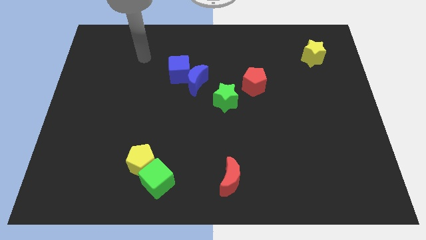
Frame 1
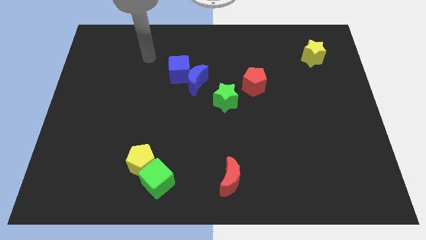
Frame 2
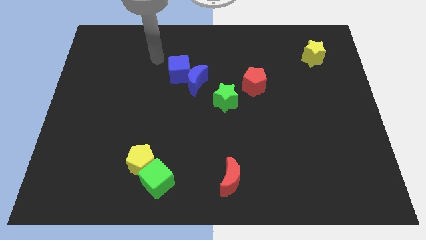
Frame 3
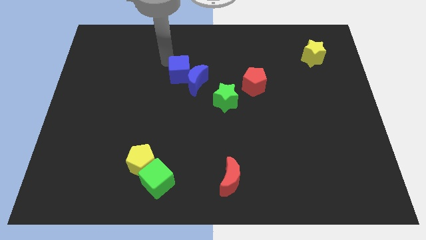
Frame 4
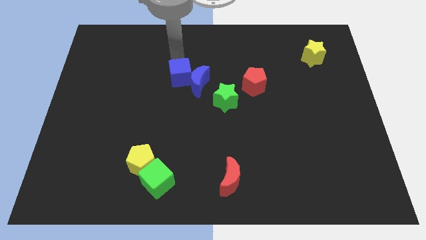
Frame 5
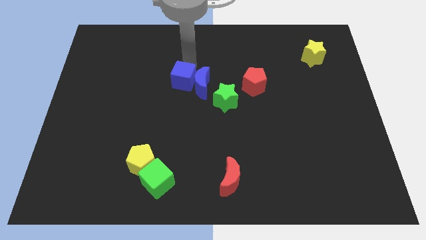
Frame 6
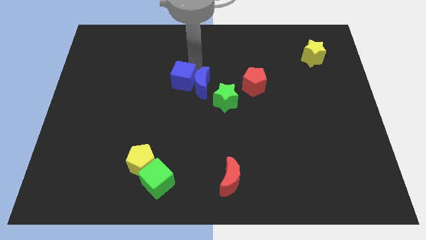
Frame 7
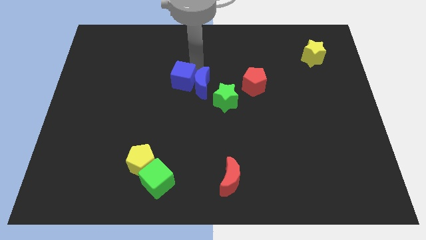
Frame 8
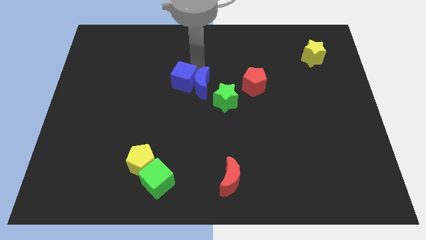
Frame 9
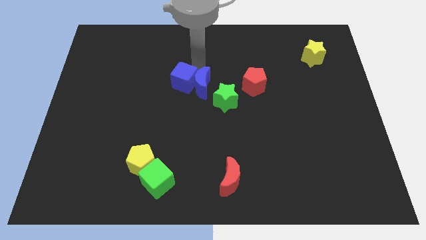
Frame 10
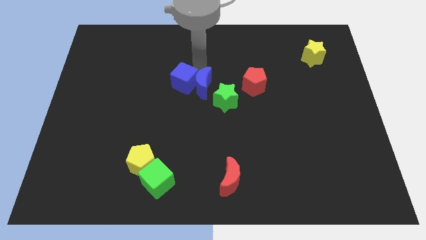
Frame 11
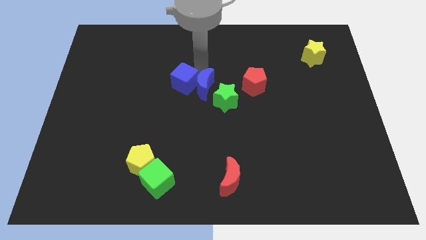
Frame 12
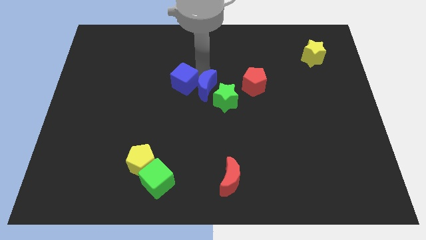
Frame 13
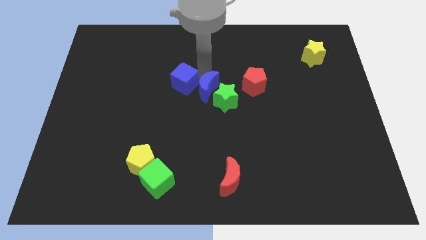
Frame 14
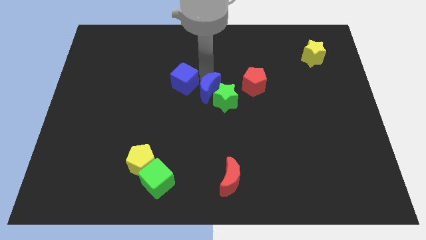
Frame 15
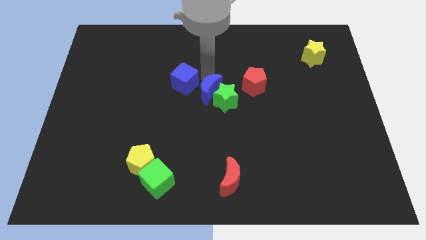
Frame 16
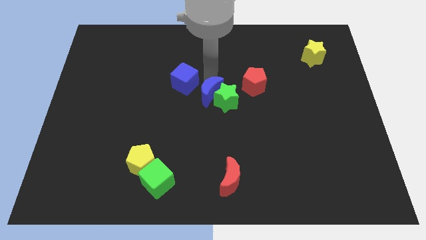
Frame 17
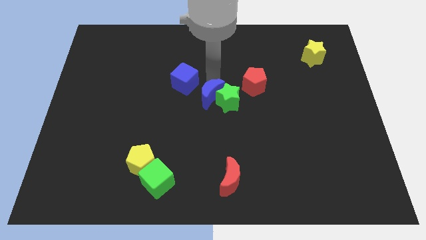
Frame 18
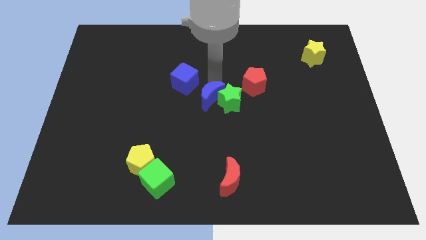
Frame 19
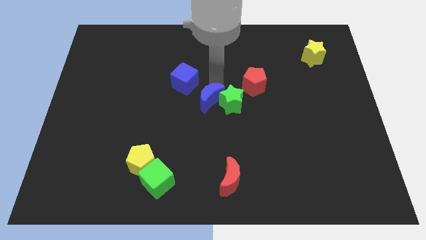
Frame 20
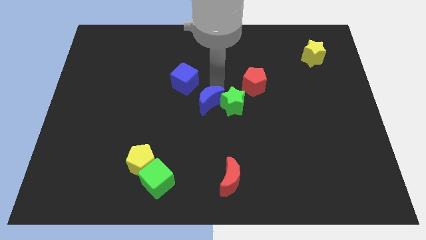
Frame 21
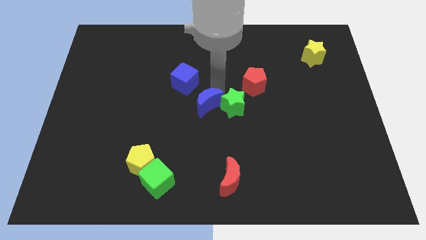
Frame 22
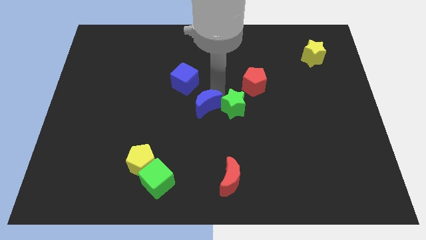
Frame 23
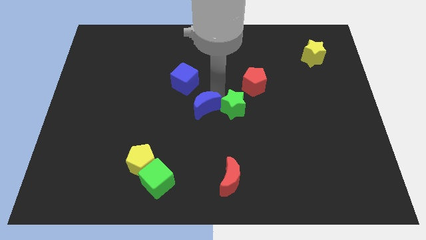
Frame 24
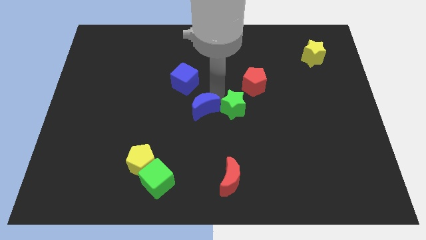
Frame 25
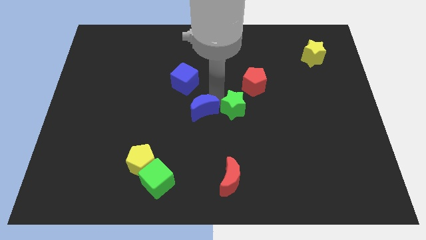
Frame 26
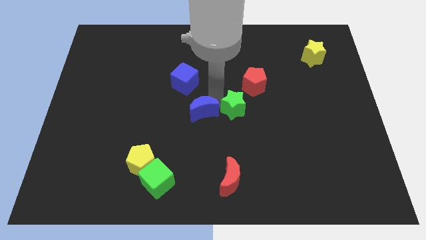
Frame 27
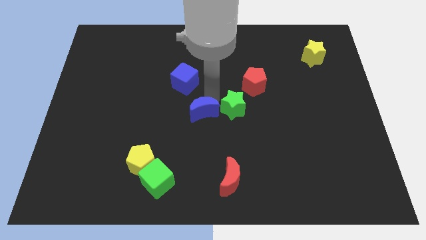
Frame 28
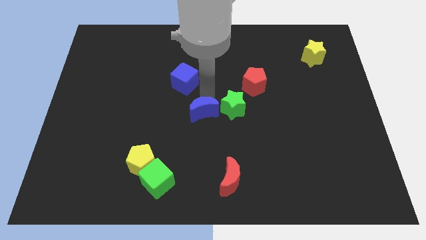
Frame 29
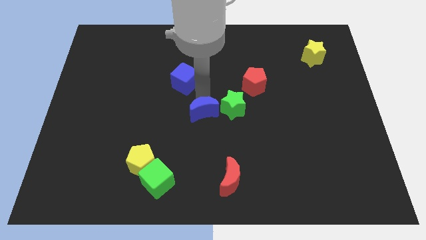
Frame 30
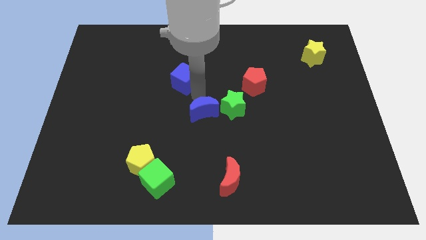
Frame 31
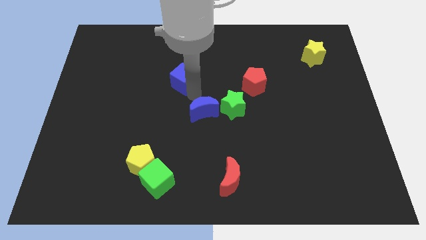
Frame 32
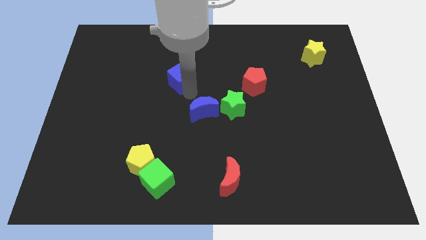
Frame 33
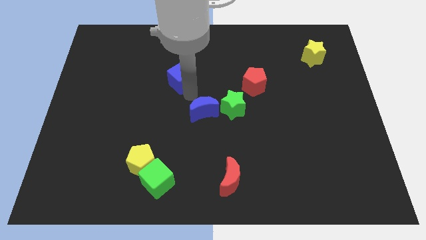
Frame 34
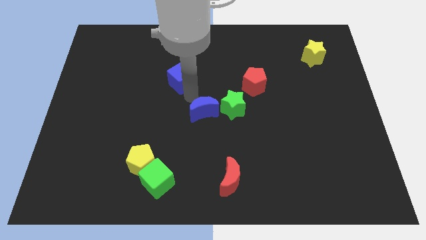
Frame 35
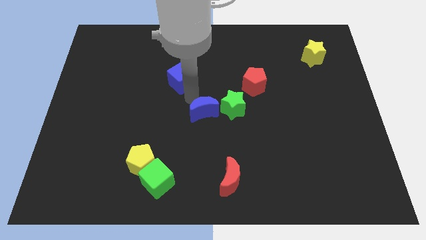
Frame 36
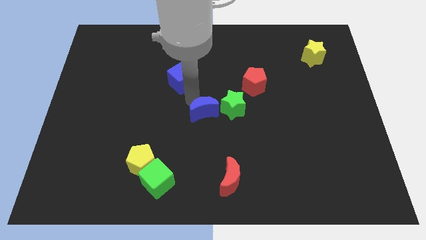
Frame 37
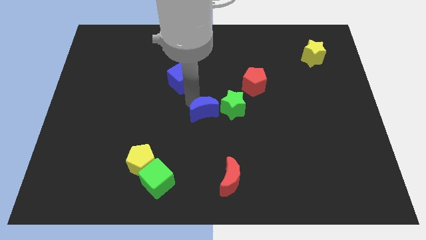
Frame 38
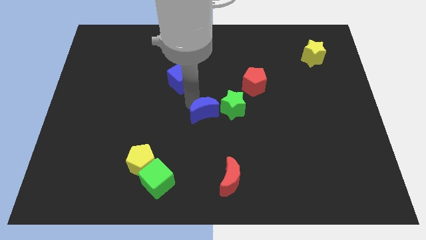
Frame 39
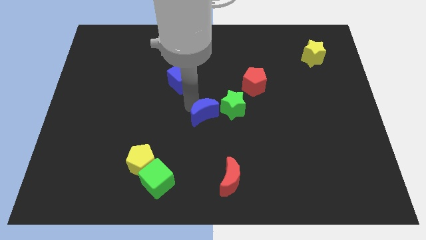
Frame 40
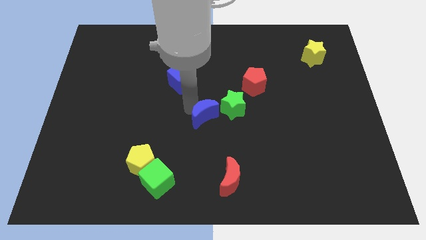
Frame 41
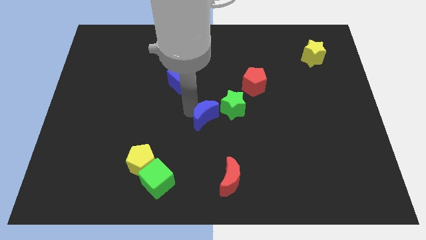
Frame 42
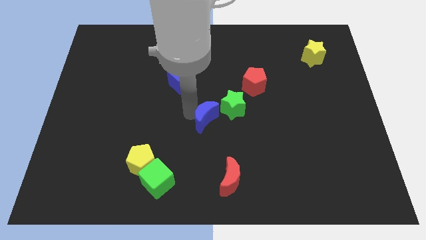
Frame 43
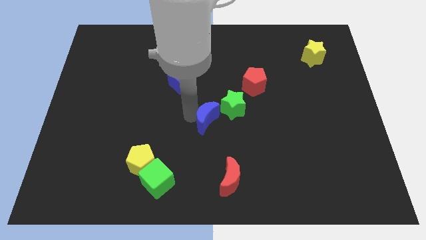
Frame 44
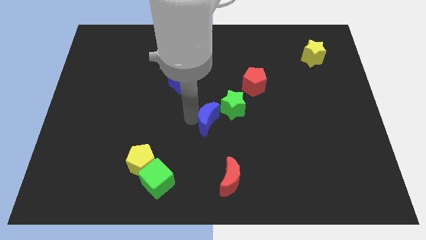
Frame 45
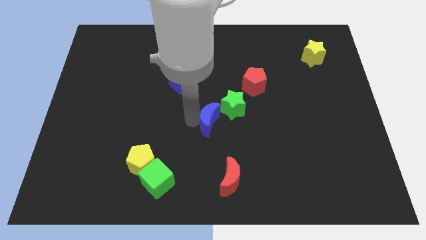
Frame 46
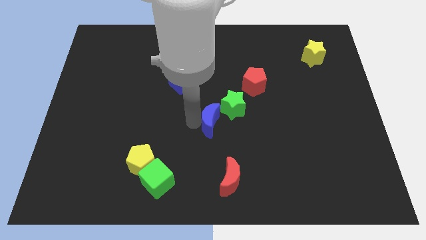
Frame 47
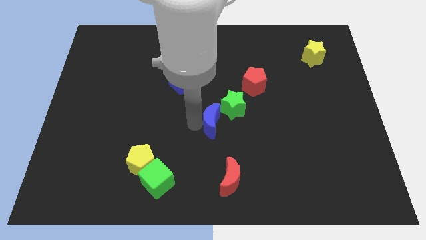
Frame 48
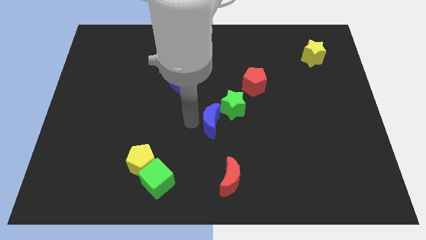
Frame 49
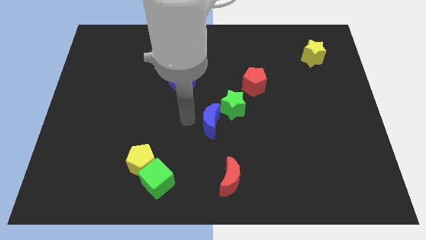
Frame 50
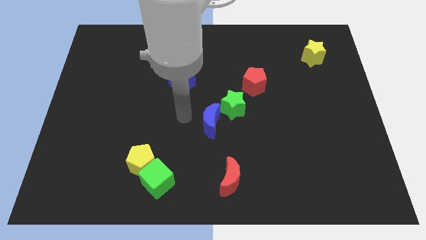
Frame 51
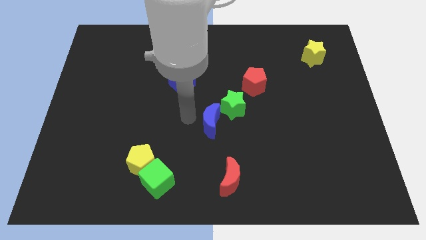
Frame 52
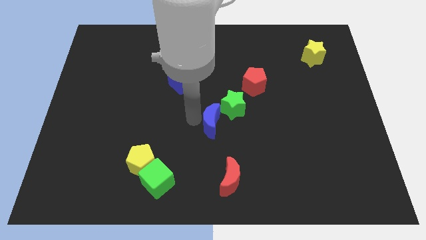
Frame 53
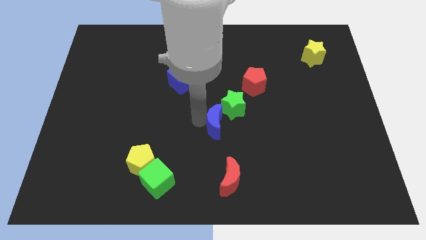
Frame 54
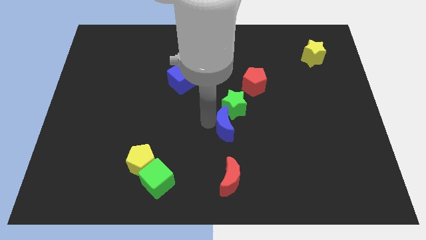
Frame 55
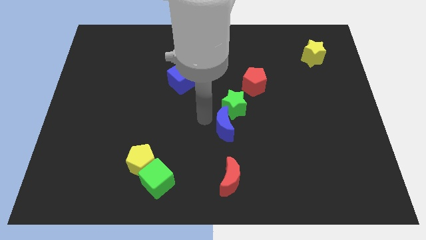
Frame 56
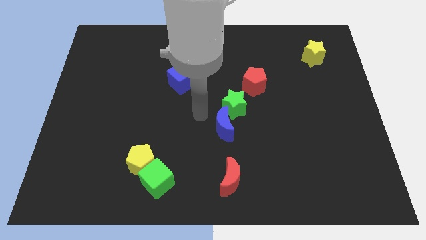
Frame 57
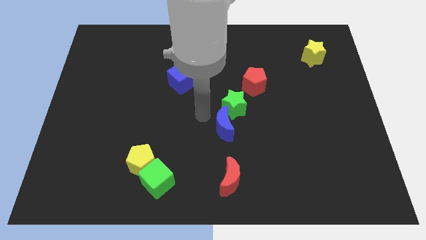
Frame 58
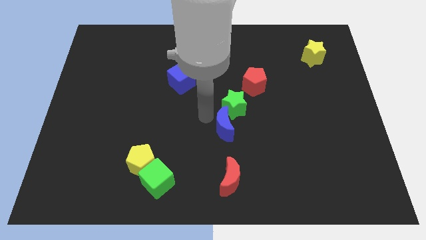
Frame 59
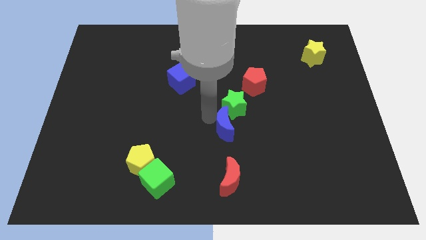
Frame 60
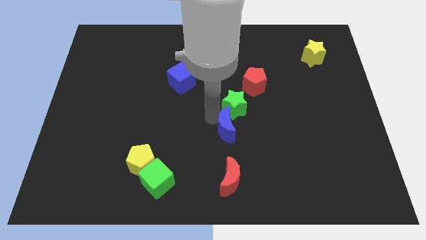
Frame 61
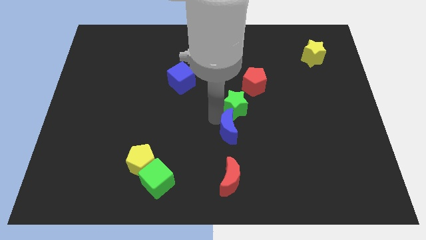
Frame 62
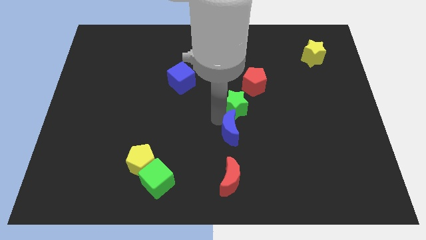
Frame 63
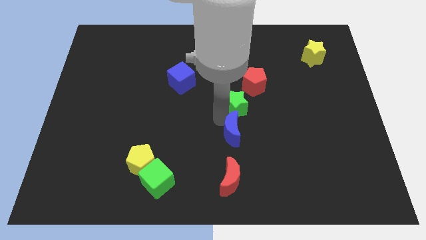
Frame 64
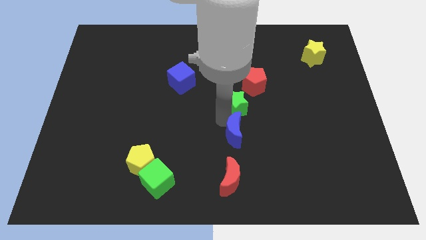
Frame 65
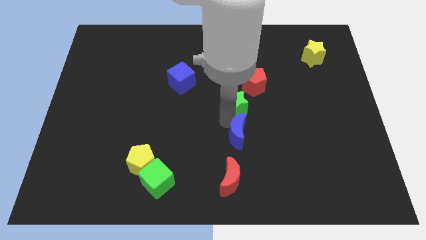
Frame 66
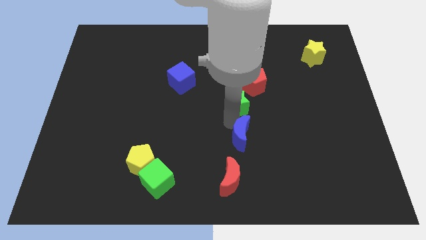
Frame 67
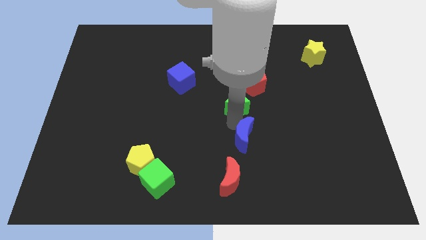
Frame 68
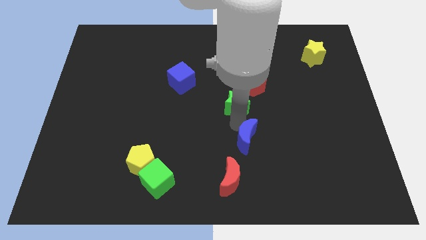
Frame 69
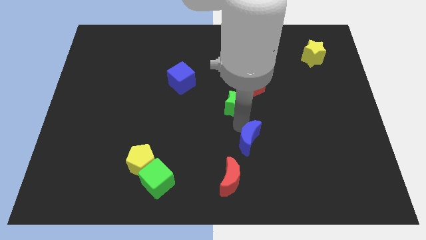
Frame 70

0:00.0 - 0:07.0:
push the blue moon downwards and to the right

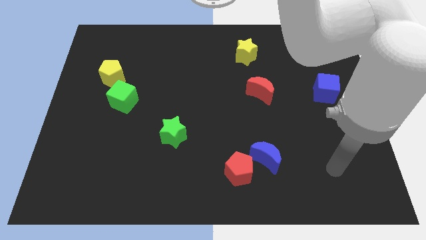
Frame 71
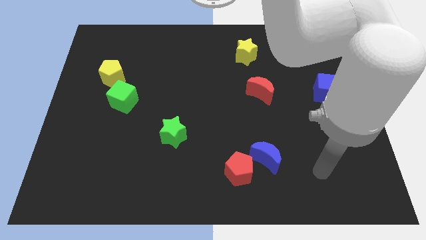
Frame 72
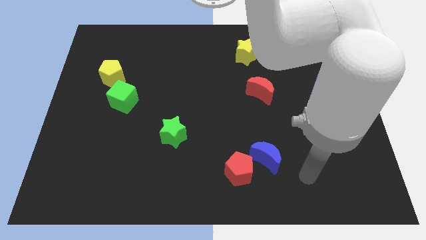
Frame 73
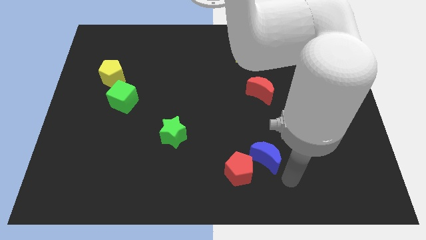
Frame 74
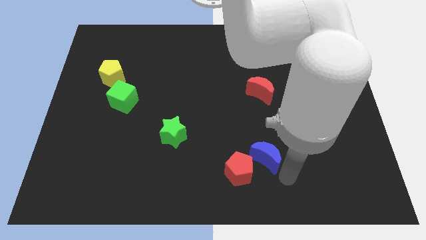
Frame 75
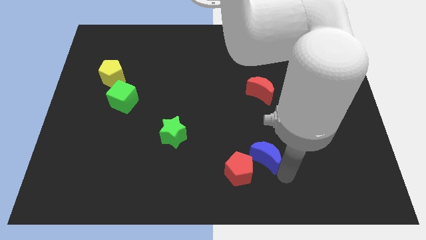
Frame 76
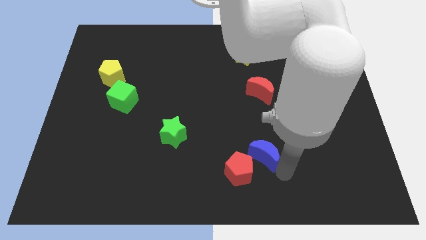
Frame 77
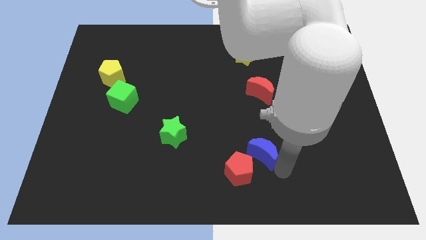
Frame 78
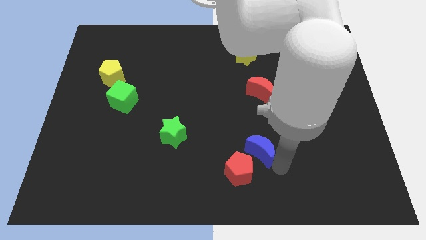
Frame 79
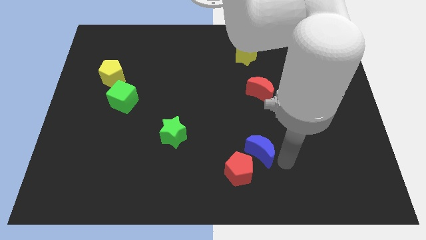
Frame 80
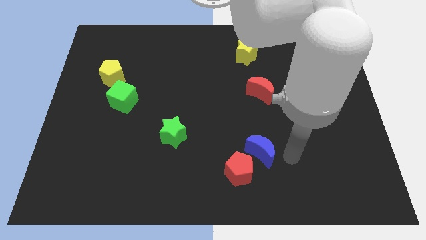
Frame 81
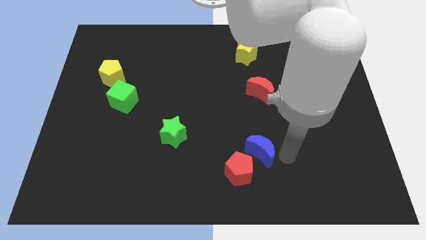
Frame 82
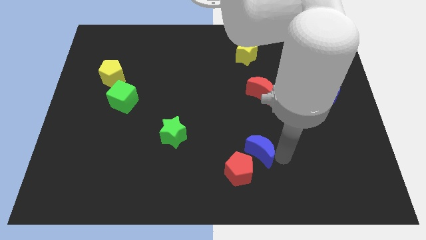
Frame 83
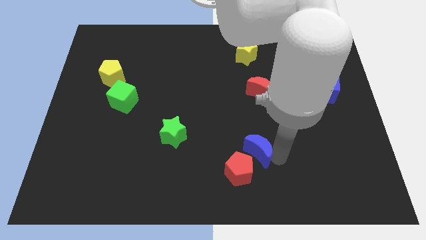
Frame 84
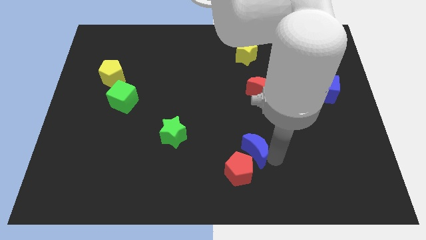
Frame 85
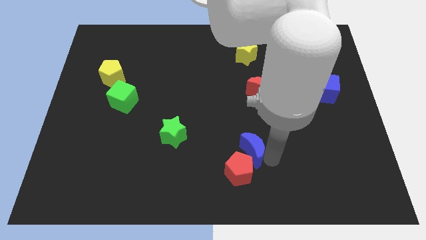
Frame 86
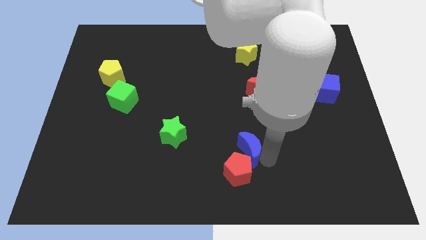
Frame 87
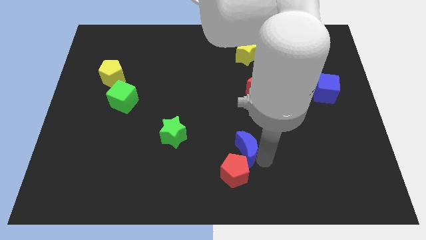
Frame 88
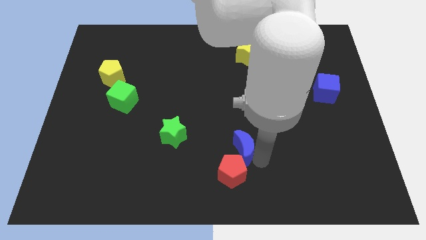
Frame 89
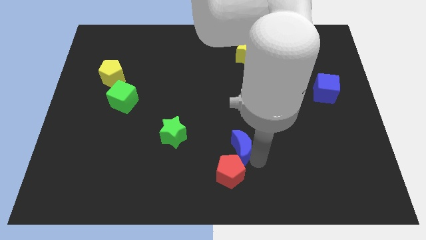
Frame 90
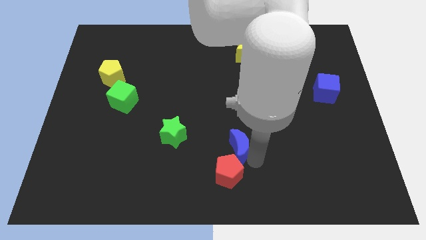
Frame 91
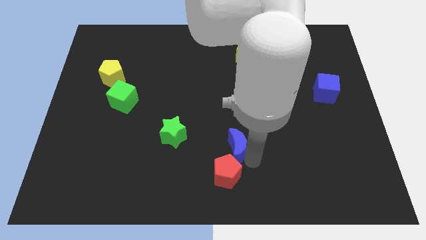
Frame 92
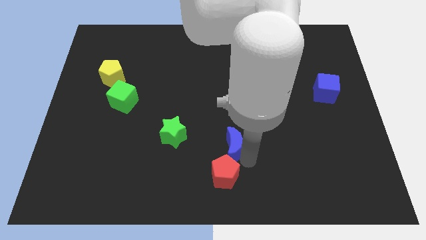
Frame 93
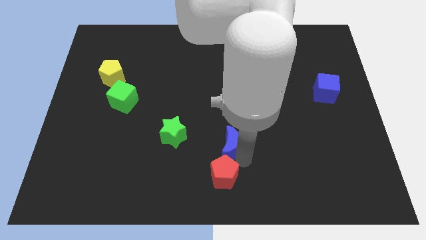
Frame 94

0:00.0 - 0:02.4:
push the blue moon a little bit left
